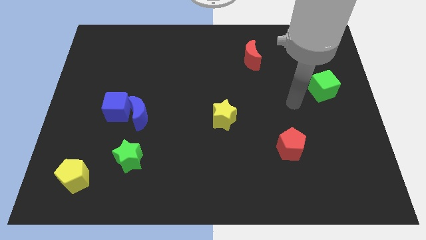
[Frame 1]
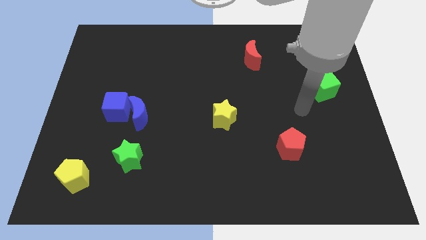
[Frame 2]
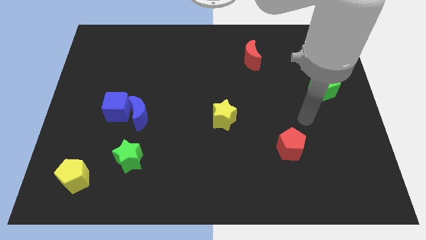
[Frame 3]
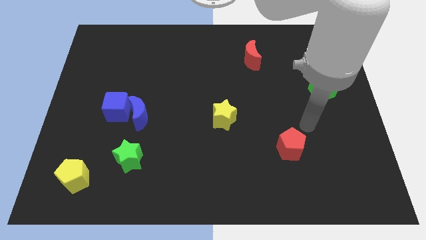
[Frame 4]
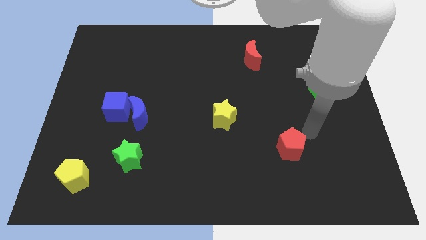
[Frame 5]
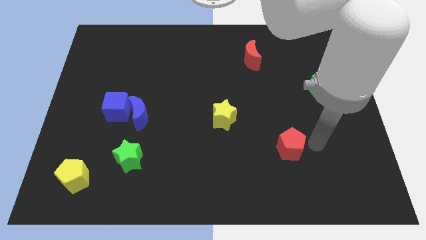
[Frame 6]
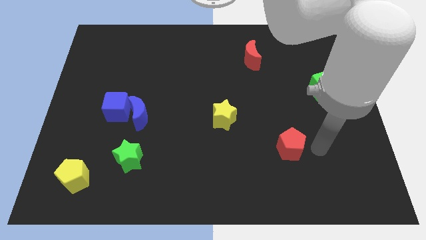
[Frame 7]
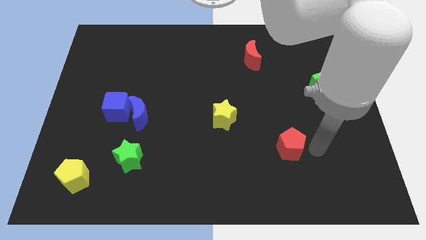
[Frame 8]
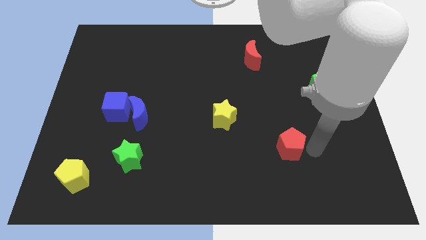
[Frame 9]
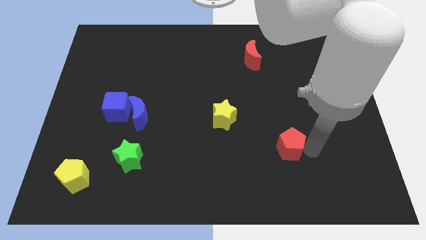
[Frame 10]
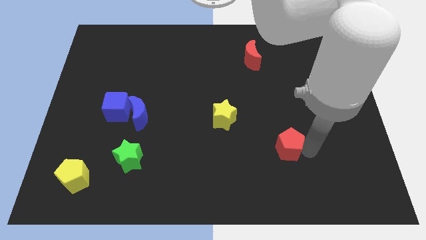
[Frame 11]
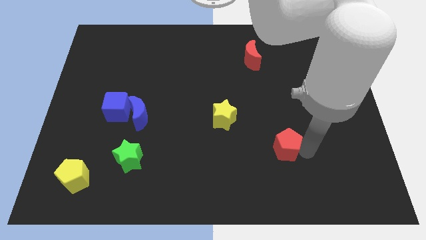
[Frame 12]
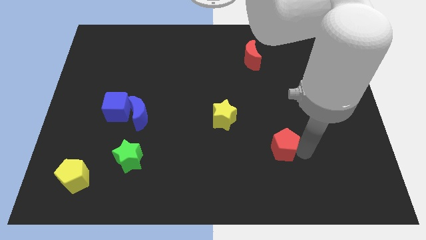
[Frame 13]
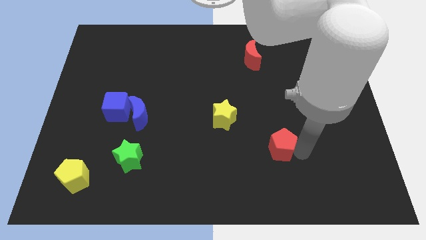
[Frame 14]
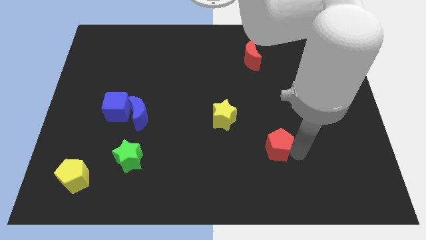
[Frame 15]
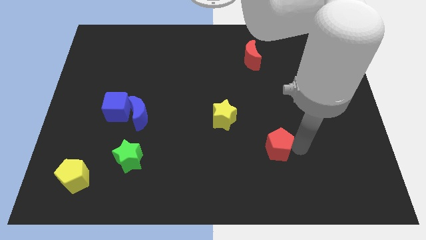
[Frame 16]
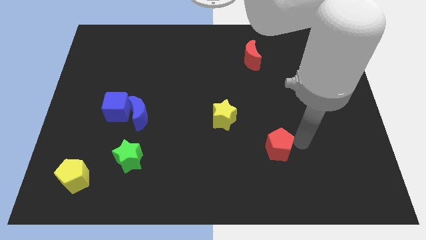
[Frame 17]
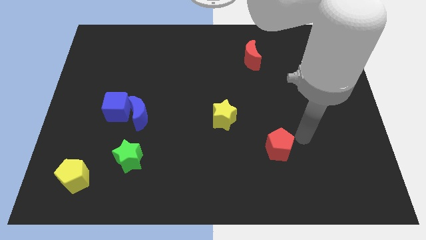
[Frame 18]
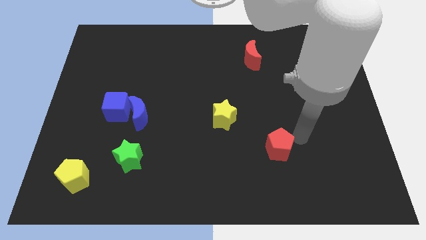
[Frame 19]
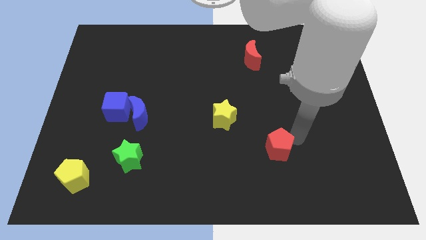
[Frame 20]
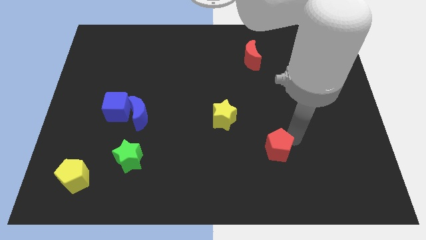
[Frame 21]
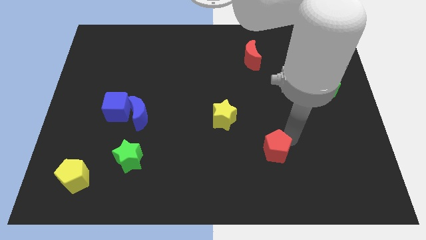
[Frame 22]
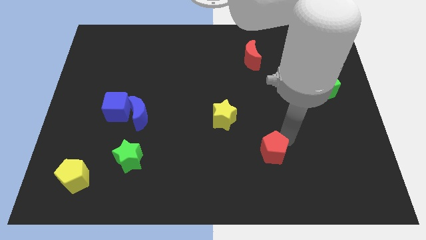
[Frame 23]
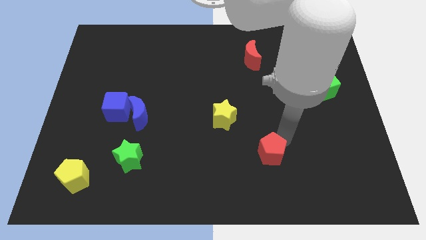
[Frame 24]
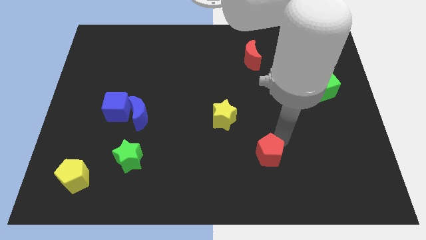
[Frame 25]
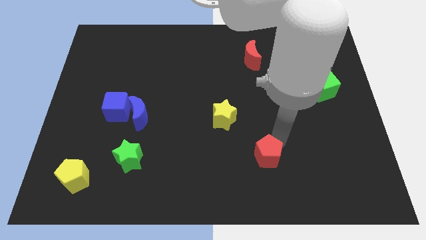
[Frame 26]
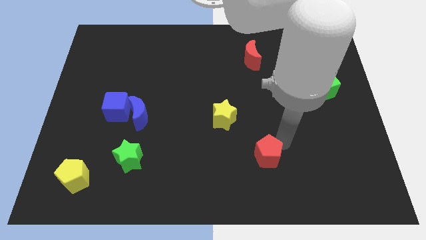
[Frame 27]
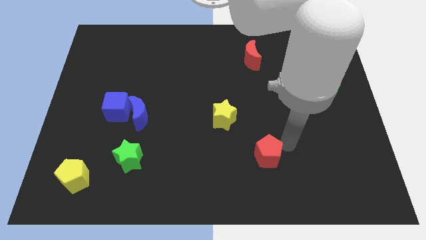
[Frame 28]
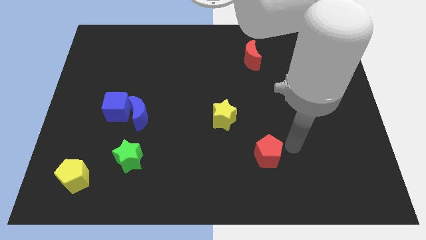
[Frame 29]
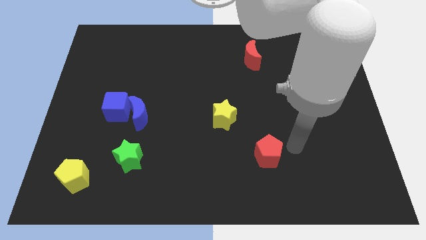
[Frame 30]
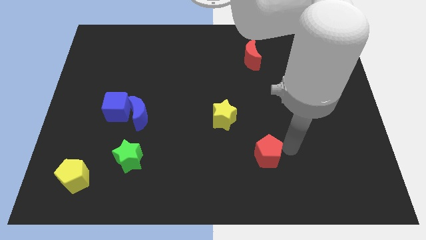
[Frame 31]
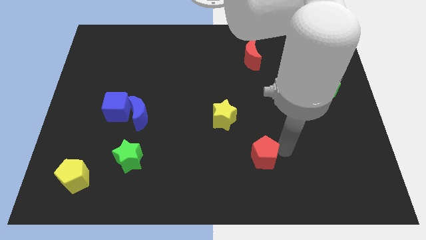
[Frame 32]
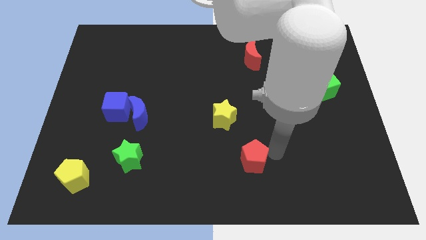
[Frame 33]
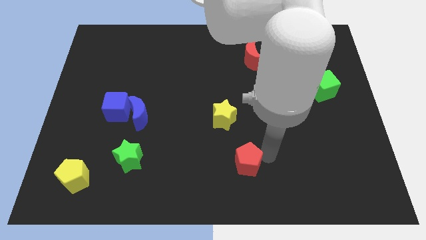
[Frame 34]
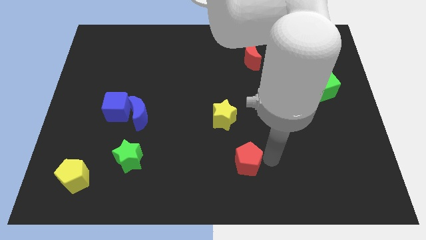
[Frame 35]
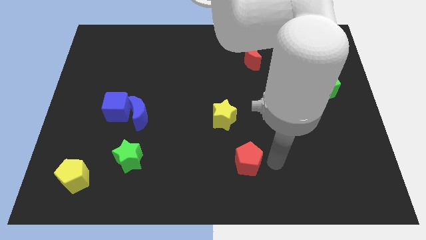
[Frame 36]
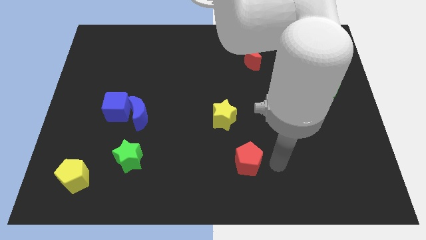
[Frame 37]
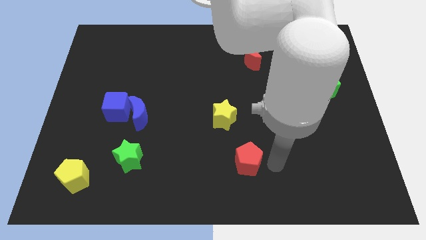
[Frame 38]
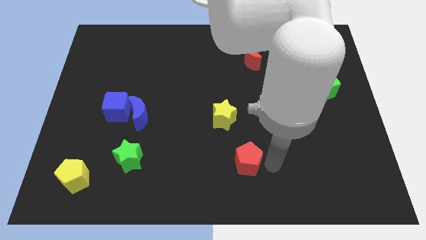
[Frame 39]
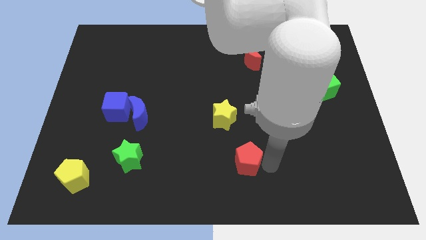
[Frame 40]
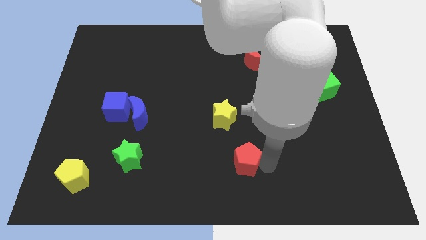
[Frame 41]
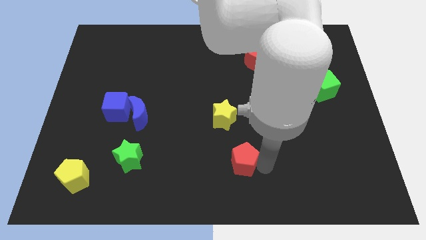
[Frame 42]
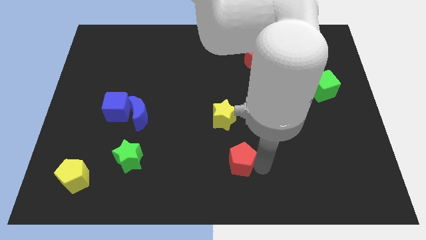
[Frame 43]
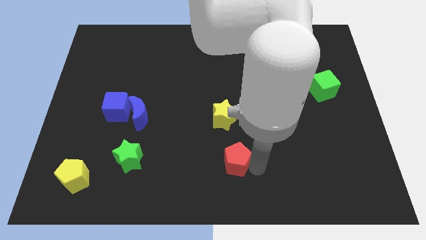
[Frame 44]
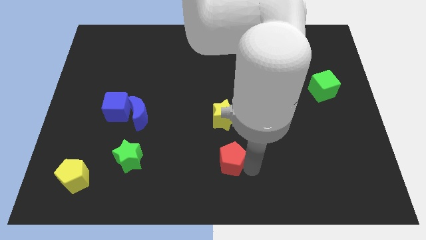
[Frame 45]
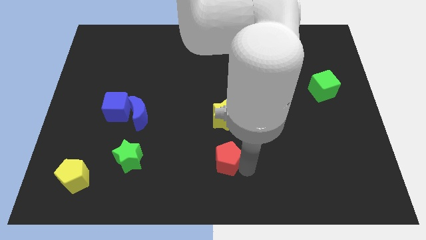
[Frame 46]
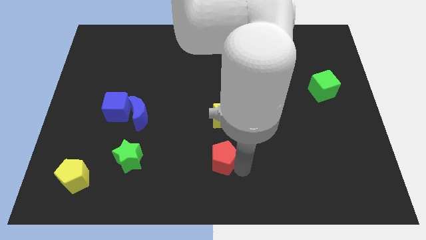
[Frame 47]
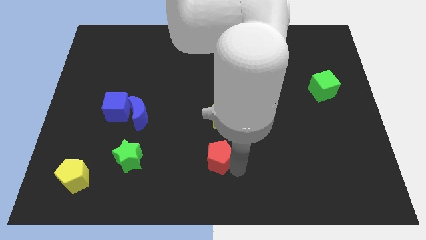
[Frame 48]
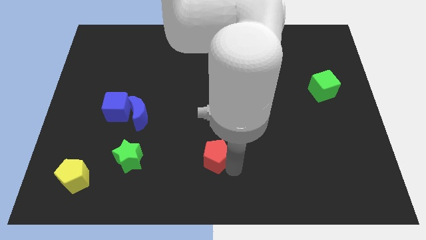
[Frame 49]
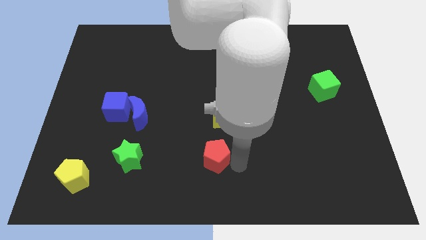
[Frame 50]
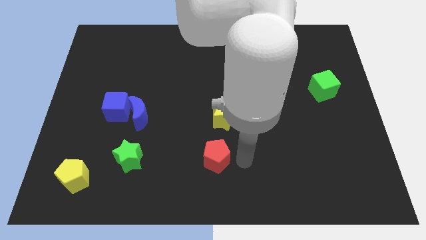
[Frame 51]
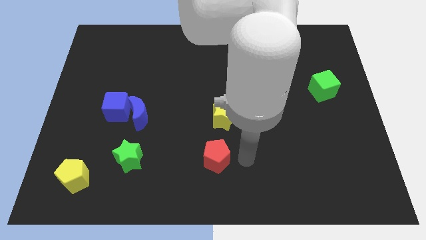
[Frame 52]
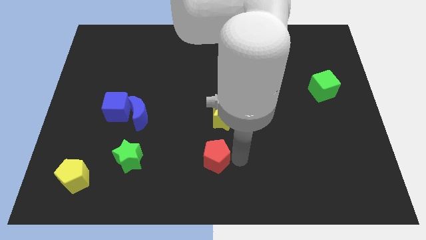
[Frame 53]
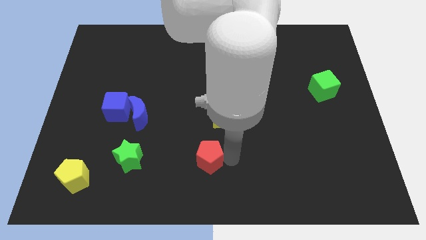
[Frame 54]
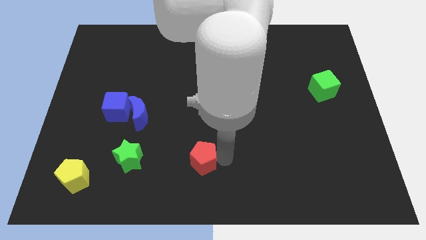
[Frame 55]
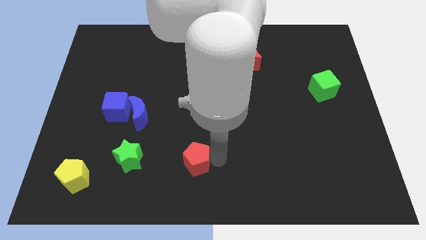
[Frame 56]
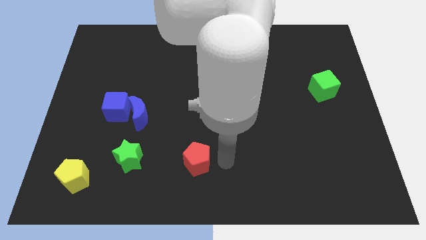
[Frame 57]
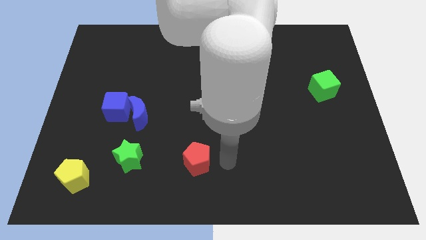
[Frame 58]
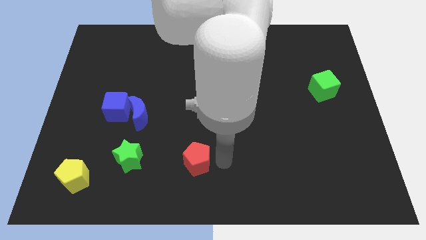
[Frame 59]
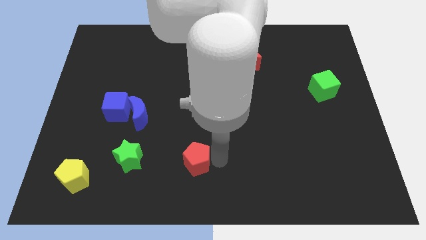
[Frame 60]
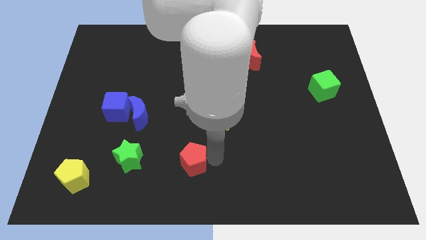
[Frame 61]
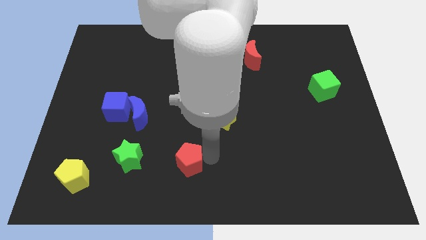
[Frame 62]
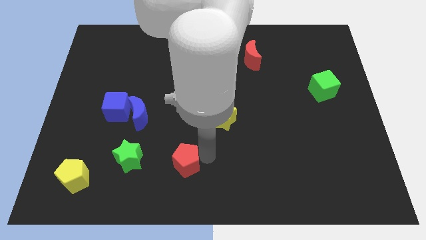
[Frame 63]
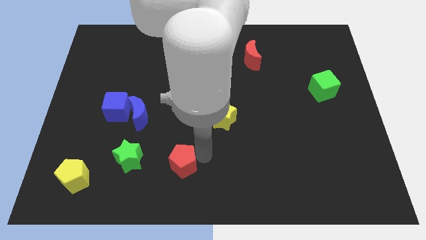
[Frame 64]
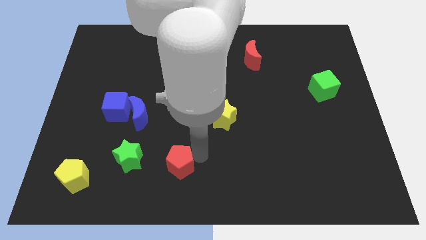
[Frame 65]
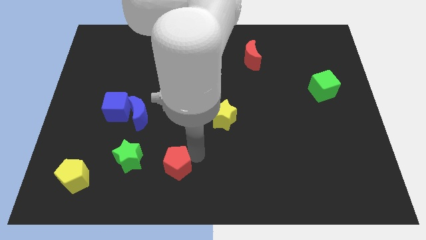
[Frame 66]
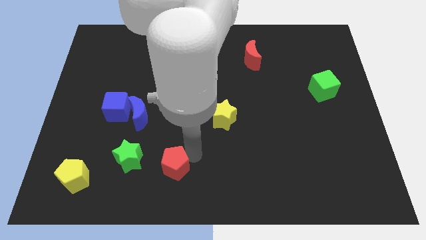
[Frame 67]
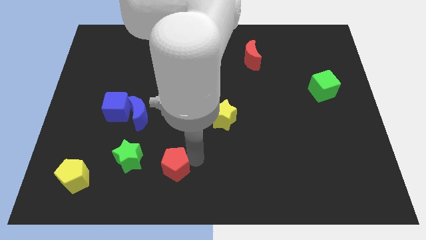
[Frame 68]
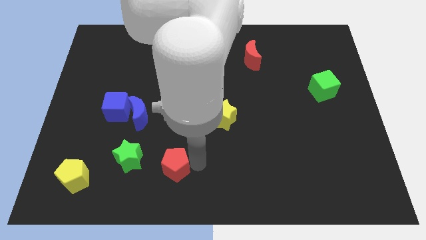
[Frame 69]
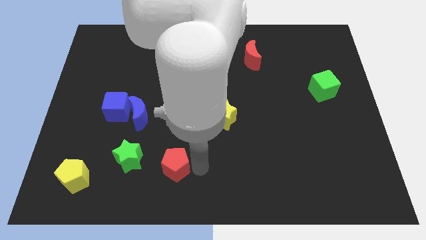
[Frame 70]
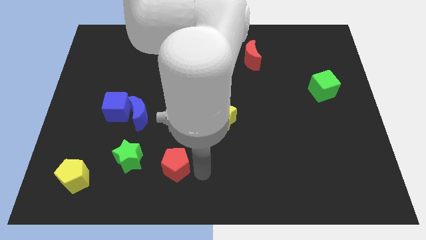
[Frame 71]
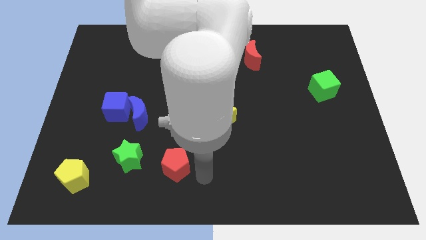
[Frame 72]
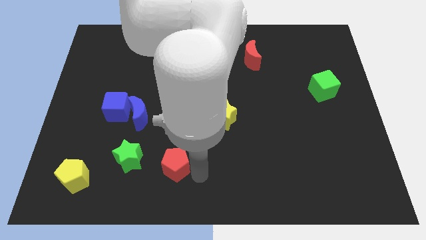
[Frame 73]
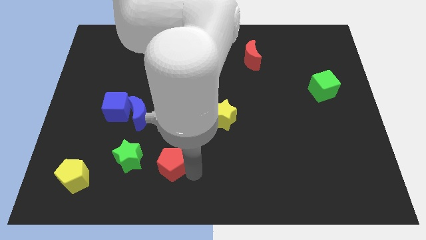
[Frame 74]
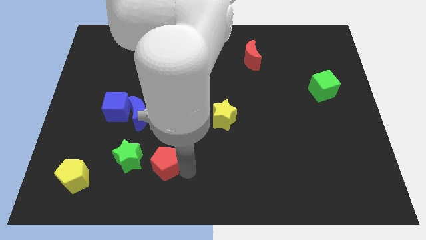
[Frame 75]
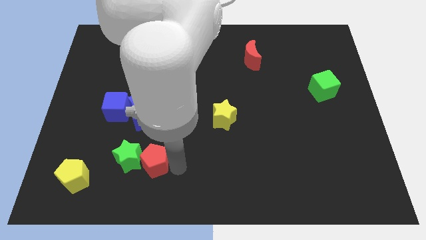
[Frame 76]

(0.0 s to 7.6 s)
put the red pentagon towards the green star
